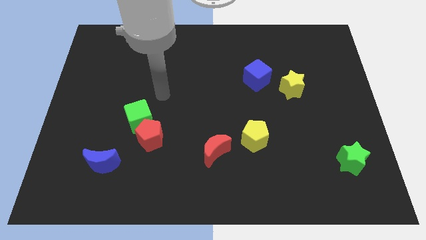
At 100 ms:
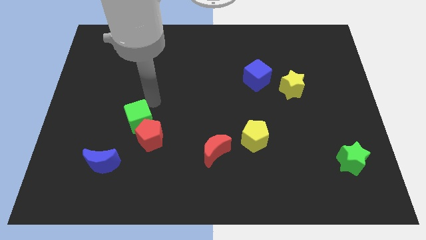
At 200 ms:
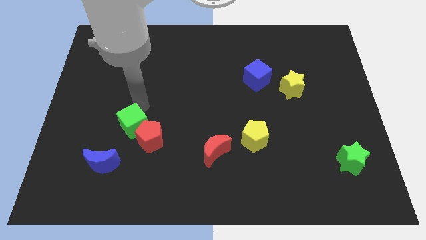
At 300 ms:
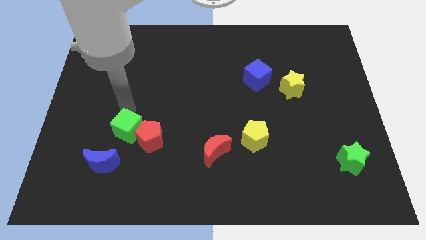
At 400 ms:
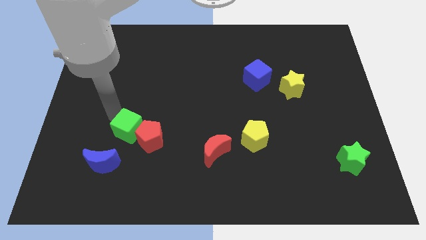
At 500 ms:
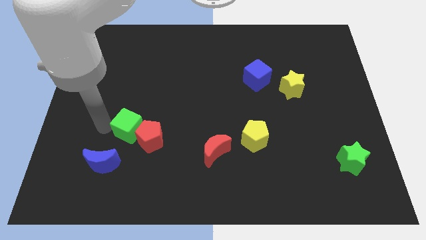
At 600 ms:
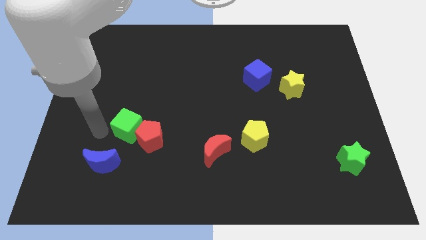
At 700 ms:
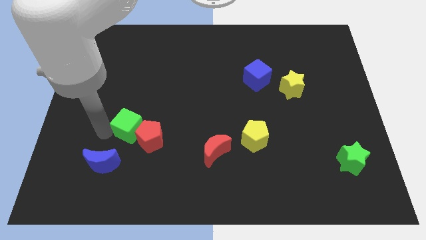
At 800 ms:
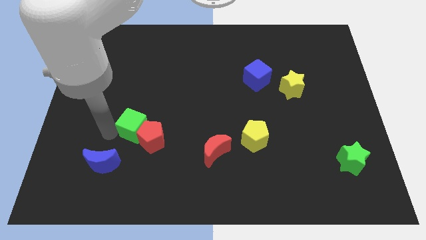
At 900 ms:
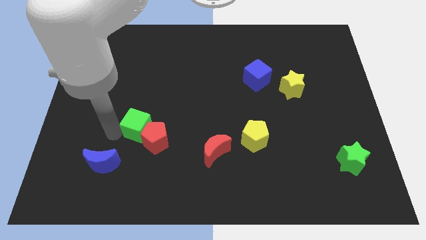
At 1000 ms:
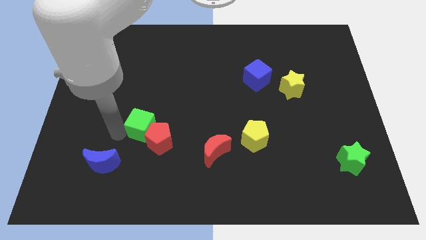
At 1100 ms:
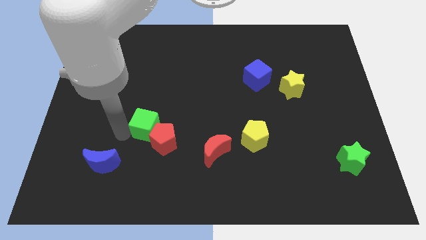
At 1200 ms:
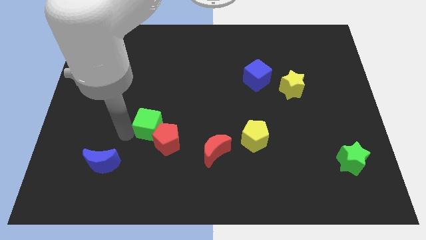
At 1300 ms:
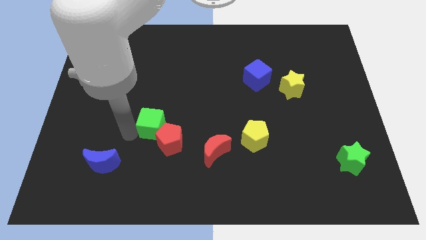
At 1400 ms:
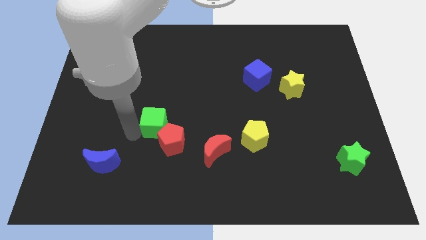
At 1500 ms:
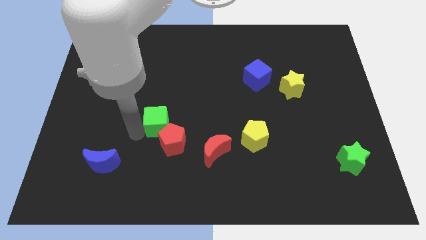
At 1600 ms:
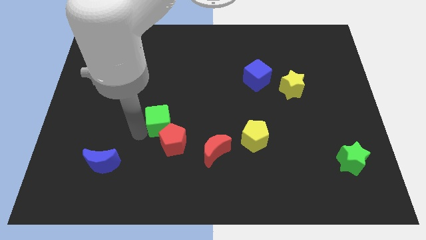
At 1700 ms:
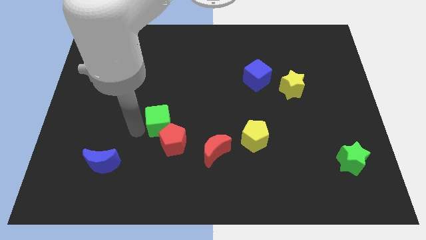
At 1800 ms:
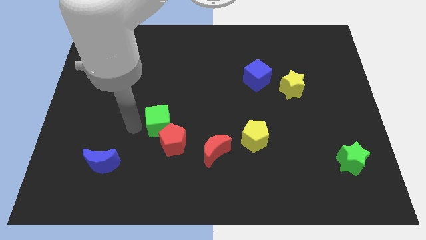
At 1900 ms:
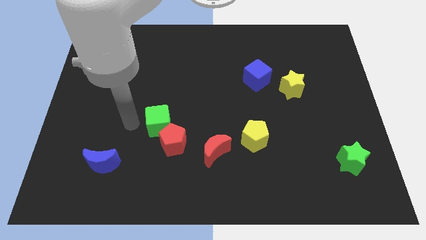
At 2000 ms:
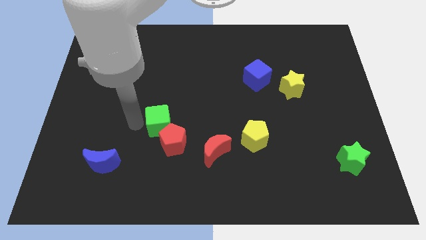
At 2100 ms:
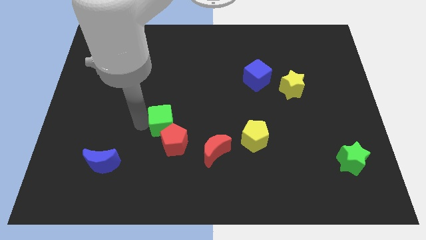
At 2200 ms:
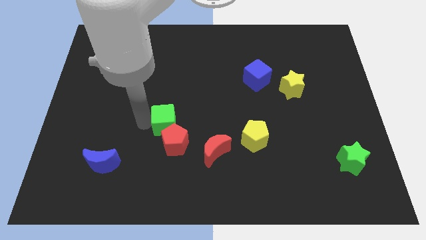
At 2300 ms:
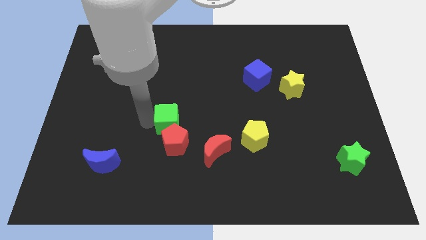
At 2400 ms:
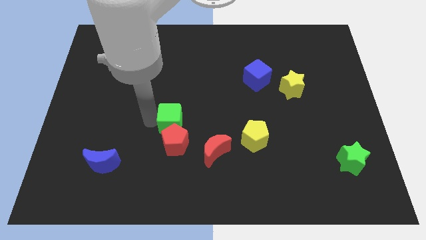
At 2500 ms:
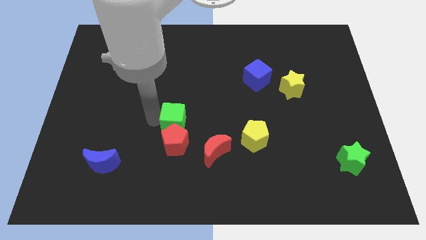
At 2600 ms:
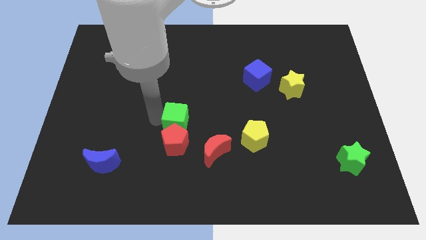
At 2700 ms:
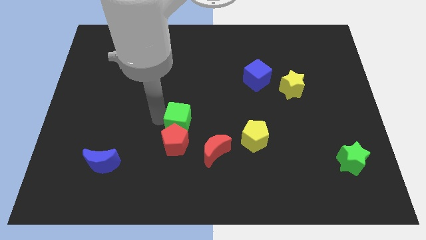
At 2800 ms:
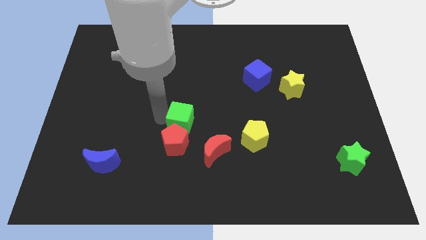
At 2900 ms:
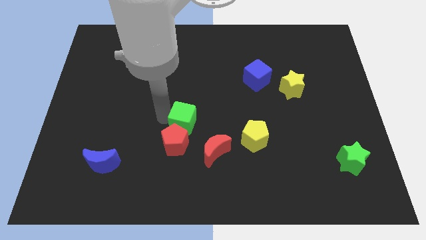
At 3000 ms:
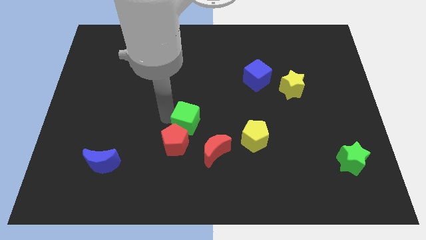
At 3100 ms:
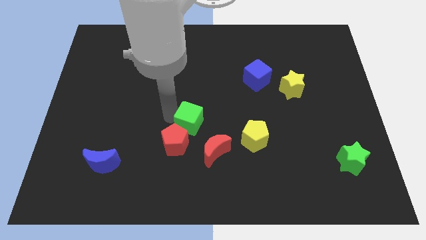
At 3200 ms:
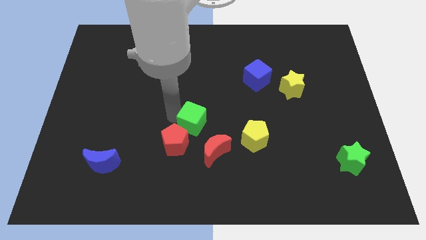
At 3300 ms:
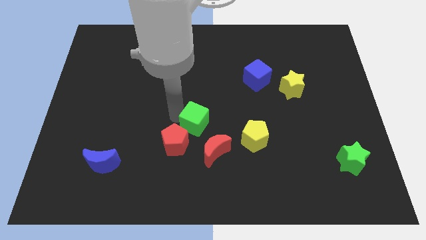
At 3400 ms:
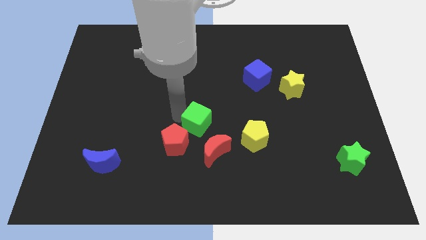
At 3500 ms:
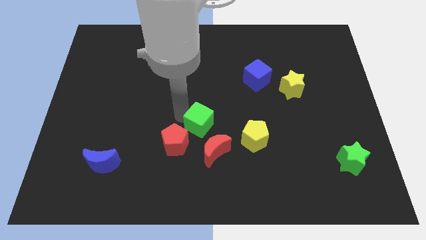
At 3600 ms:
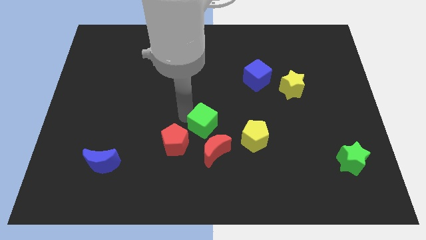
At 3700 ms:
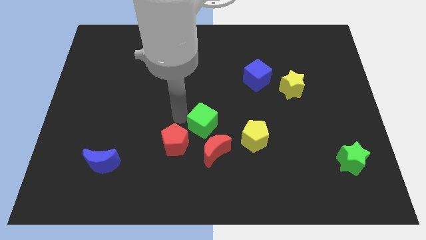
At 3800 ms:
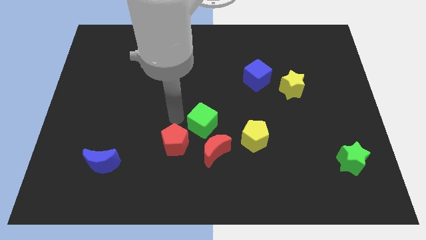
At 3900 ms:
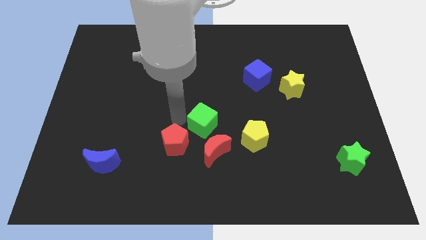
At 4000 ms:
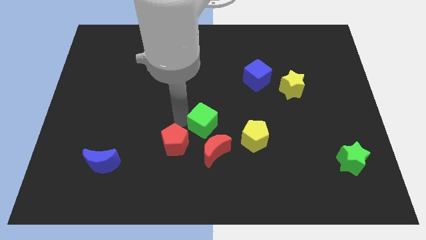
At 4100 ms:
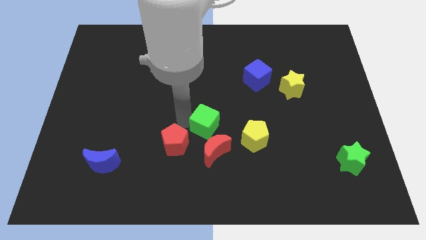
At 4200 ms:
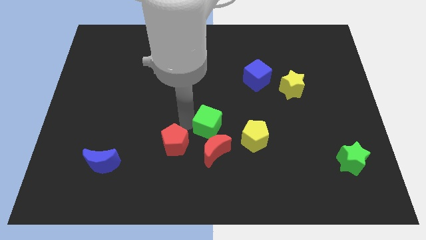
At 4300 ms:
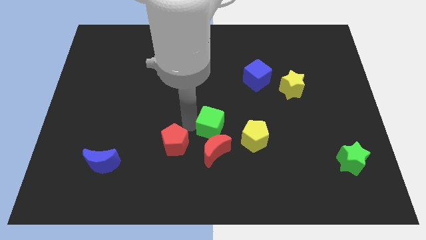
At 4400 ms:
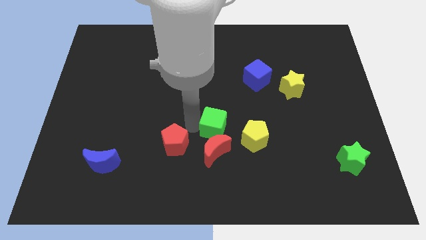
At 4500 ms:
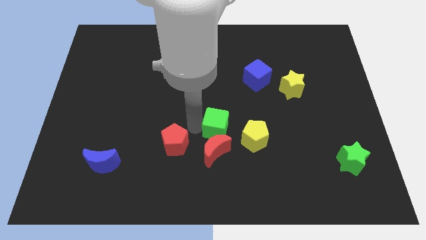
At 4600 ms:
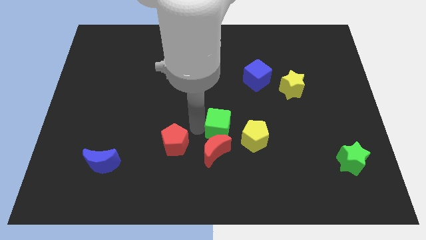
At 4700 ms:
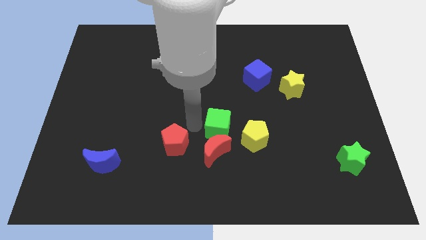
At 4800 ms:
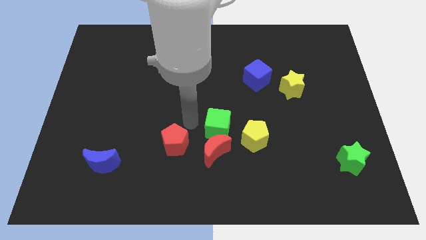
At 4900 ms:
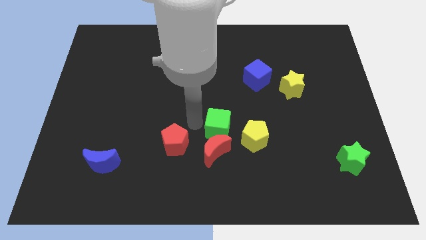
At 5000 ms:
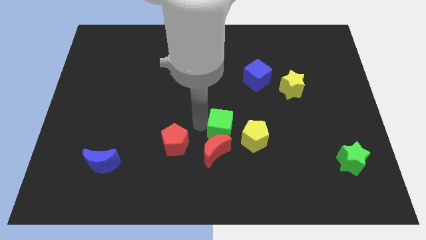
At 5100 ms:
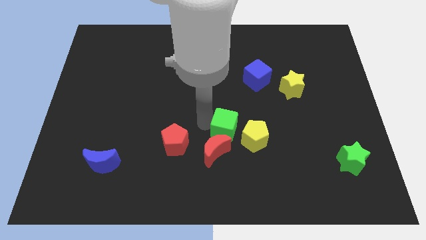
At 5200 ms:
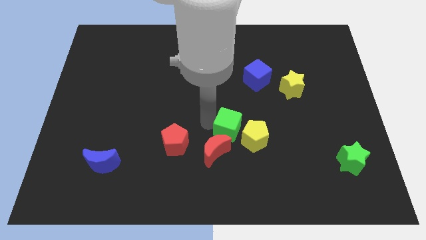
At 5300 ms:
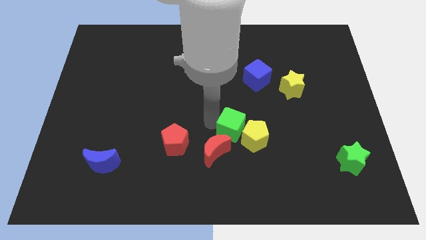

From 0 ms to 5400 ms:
put the green cube close to the yellow pentagon

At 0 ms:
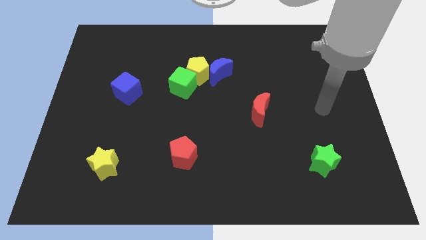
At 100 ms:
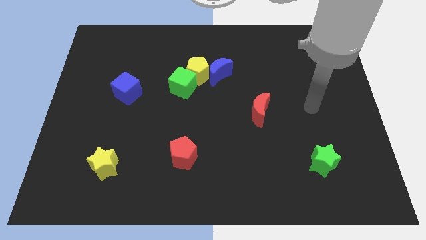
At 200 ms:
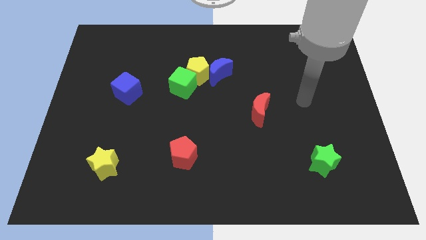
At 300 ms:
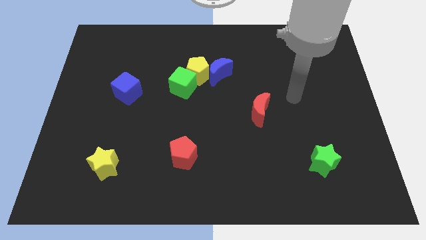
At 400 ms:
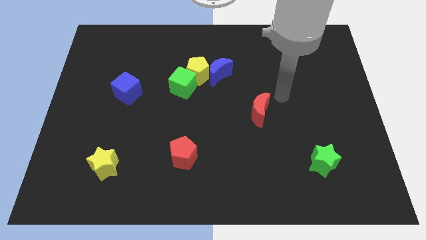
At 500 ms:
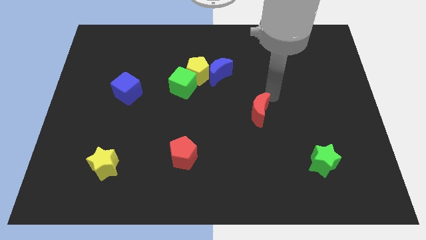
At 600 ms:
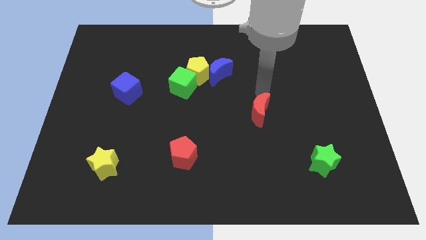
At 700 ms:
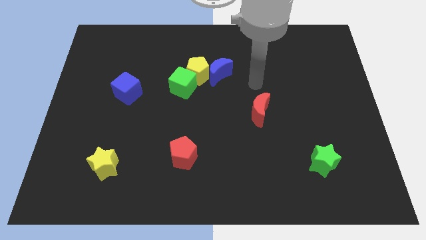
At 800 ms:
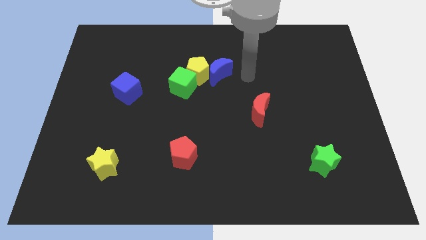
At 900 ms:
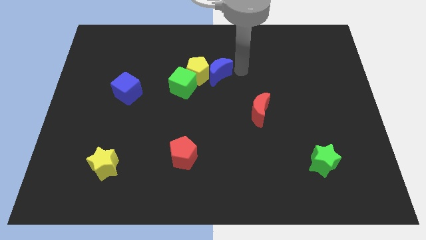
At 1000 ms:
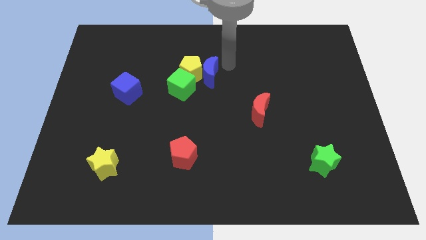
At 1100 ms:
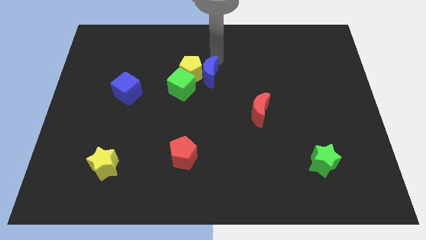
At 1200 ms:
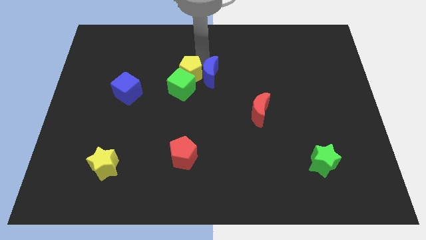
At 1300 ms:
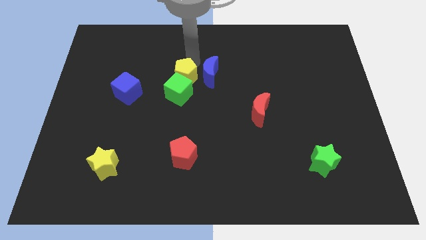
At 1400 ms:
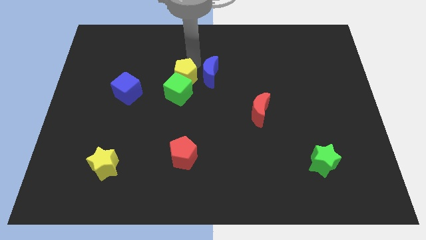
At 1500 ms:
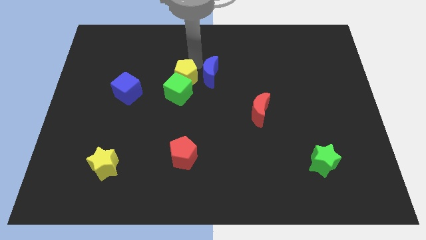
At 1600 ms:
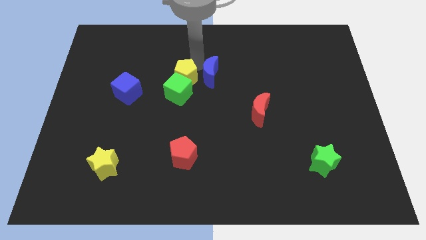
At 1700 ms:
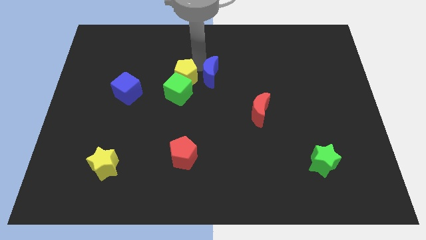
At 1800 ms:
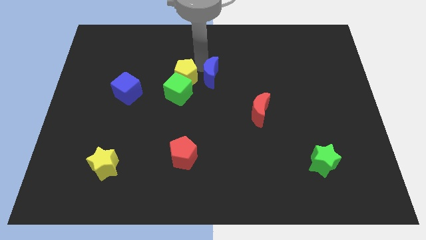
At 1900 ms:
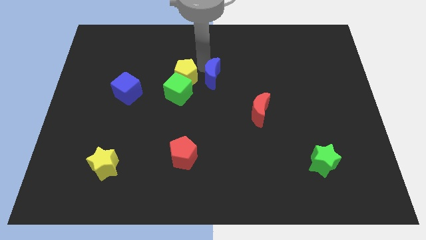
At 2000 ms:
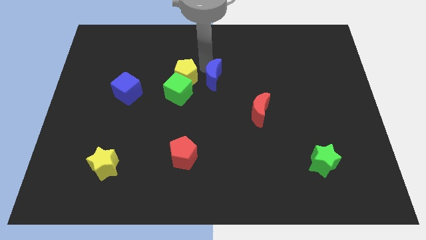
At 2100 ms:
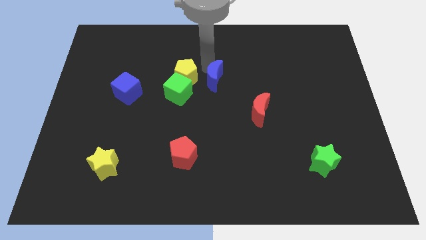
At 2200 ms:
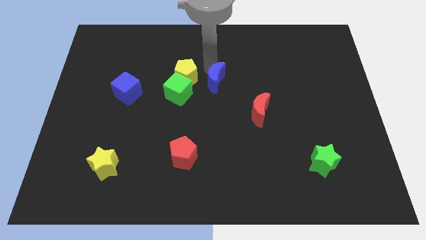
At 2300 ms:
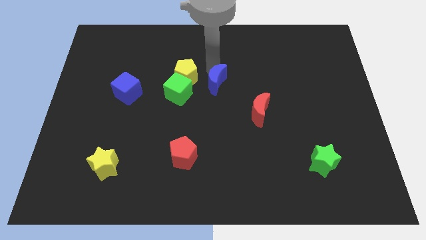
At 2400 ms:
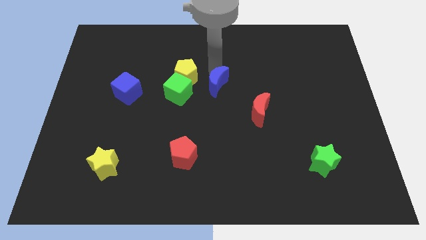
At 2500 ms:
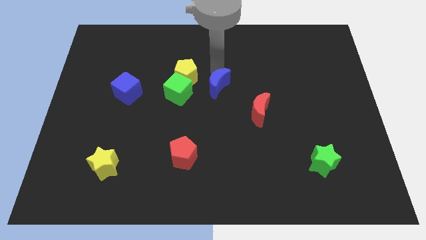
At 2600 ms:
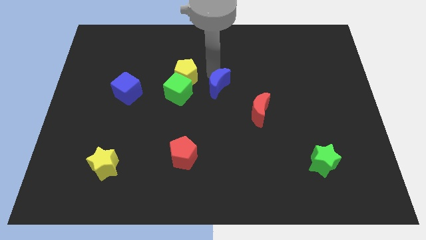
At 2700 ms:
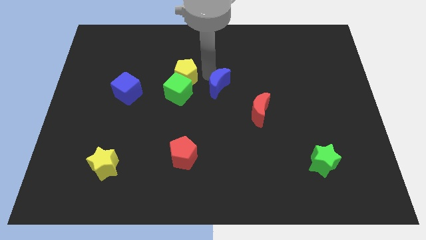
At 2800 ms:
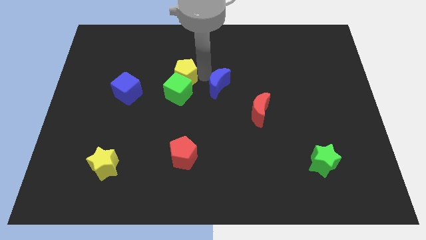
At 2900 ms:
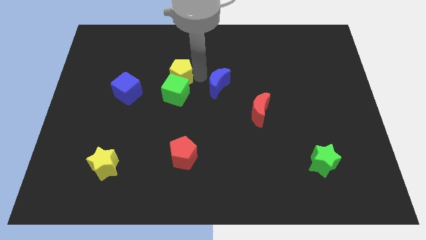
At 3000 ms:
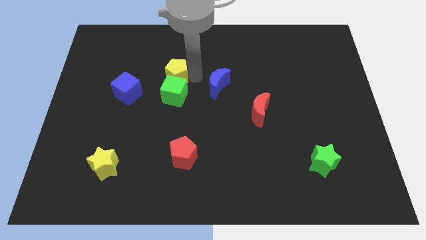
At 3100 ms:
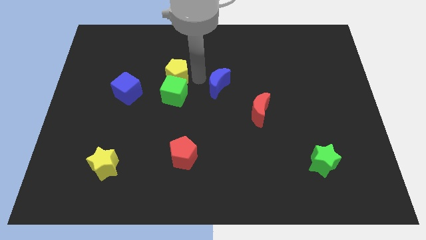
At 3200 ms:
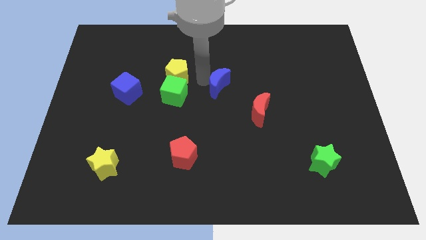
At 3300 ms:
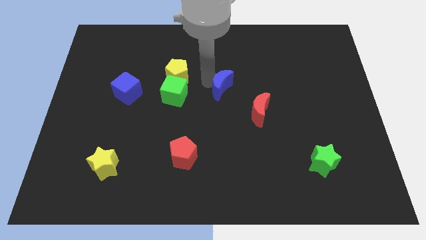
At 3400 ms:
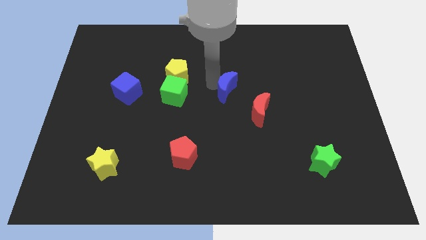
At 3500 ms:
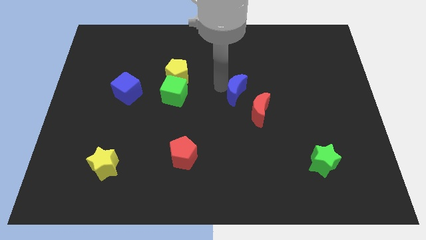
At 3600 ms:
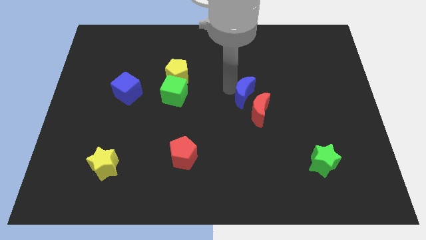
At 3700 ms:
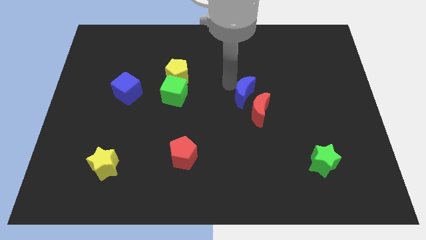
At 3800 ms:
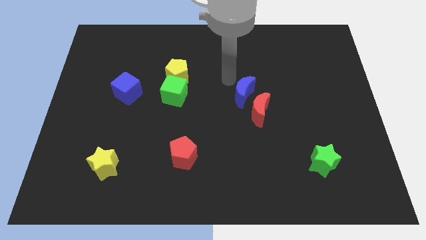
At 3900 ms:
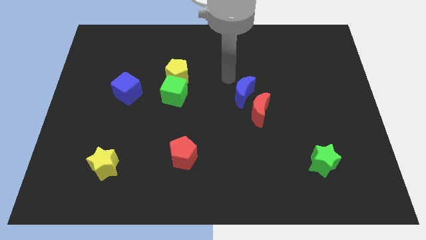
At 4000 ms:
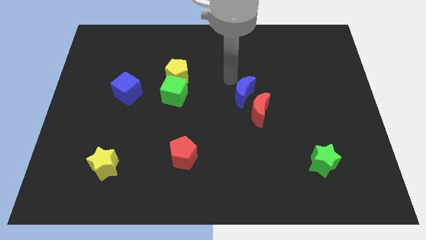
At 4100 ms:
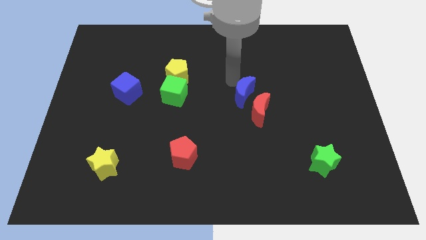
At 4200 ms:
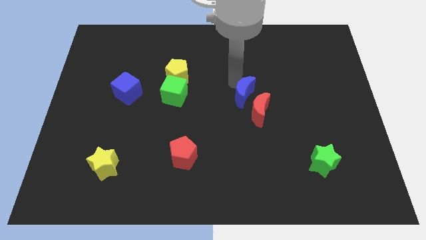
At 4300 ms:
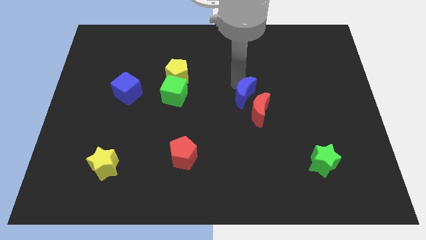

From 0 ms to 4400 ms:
push the blue moon close to the red moon
